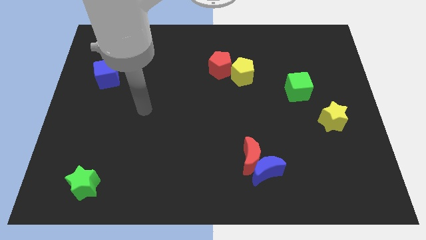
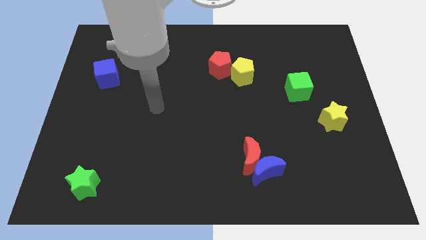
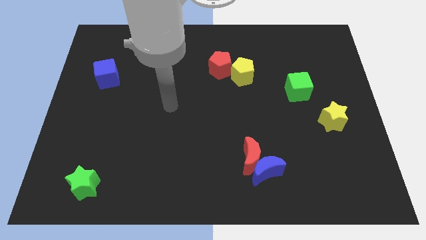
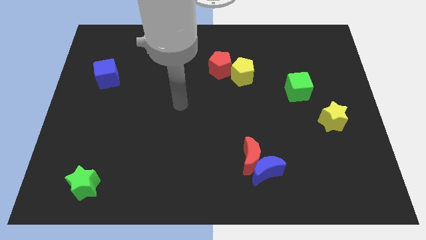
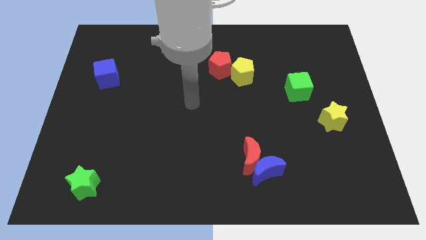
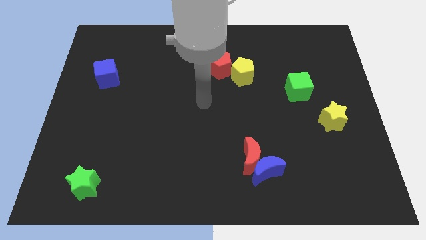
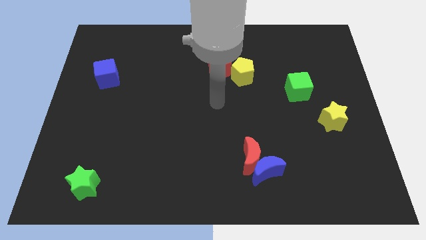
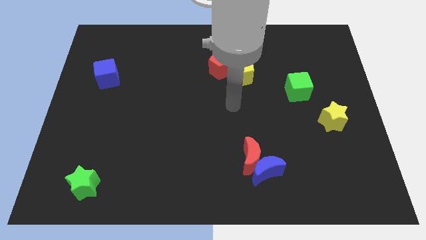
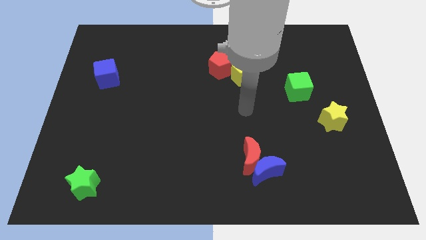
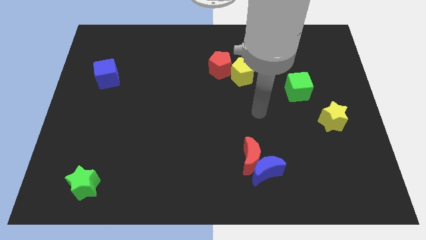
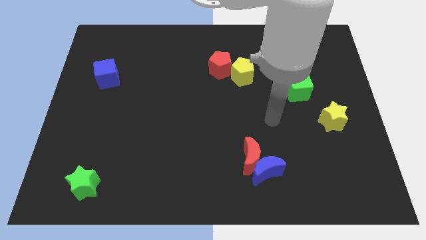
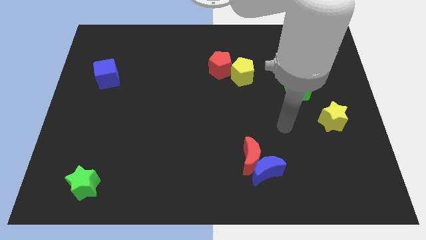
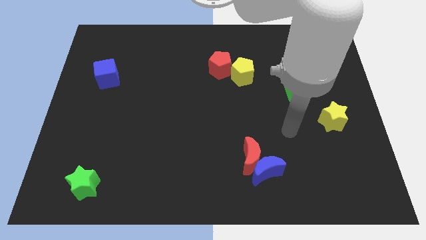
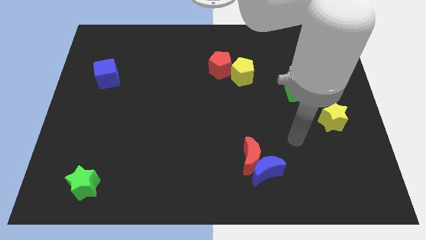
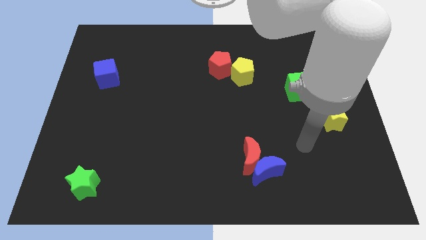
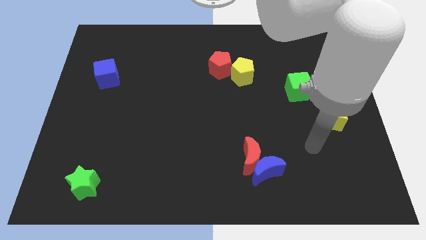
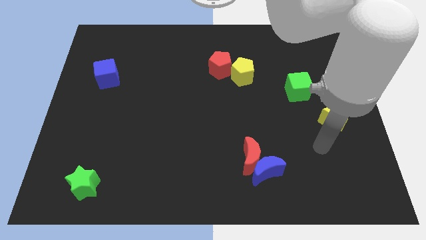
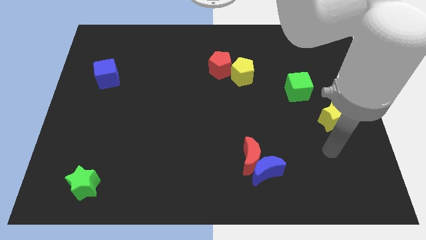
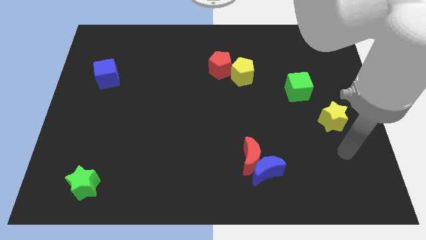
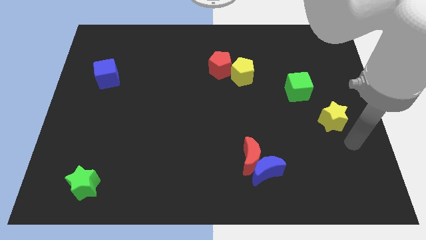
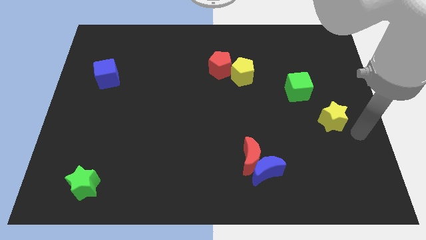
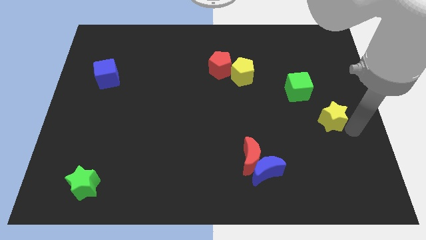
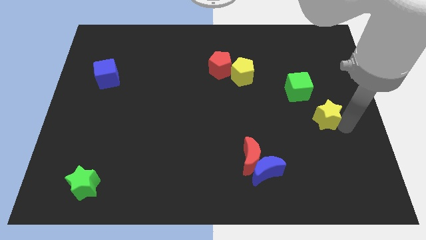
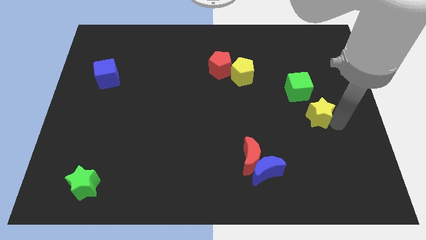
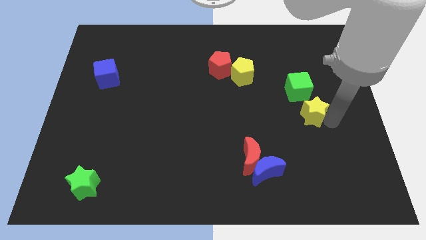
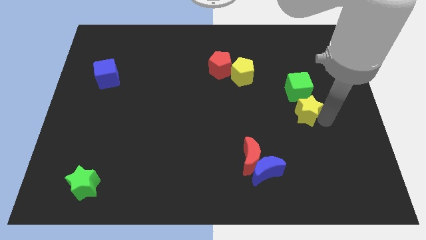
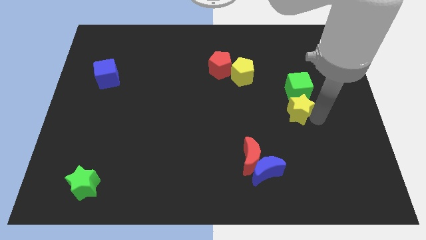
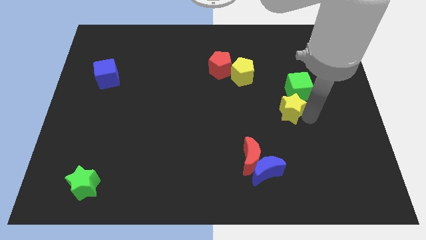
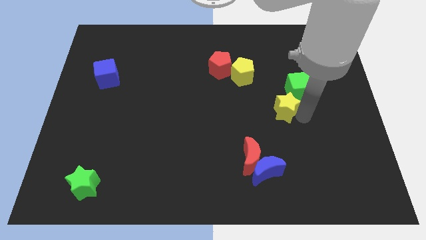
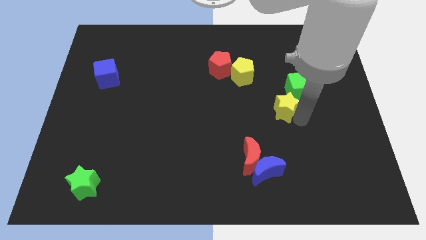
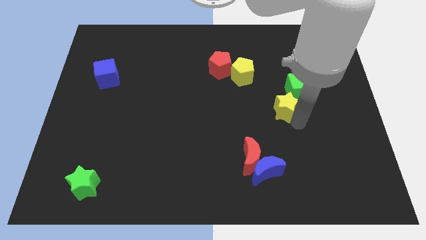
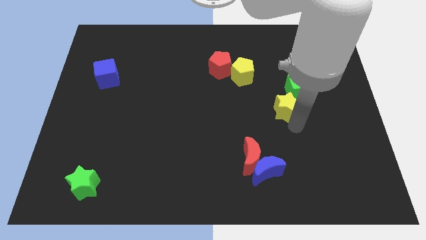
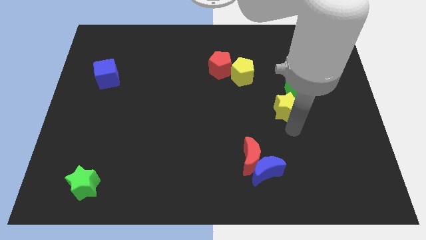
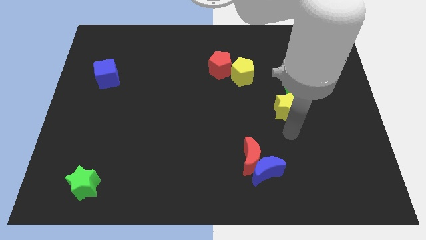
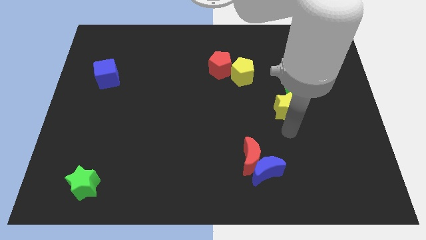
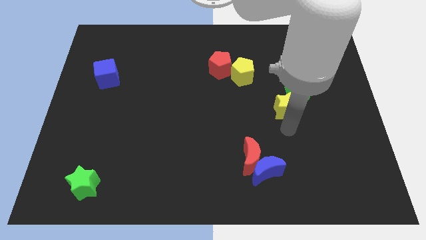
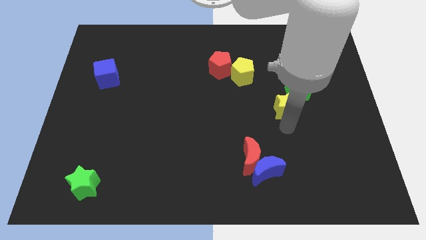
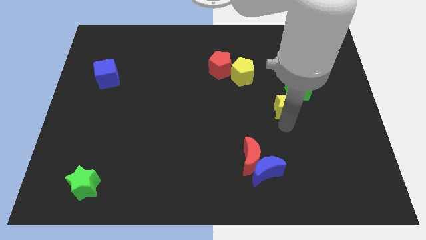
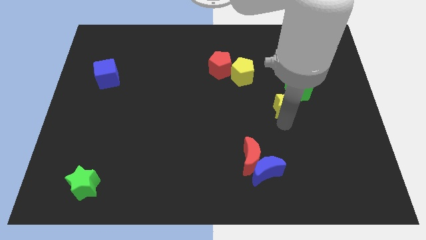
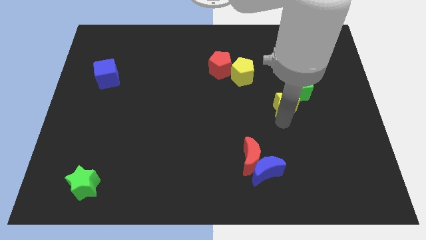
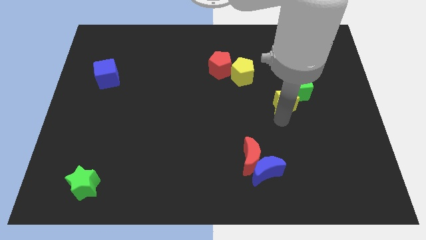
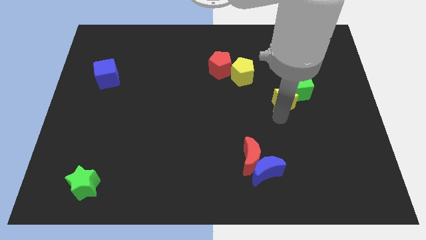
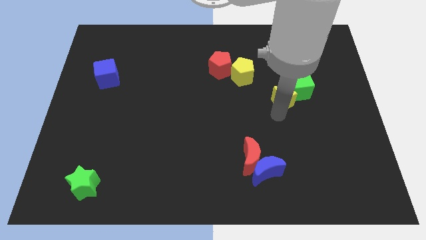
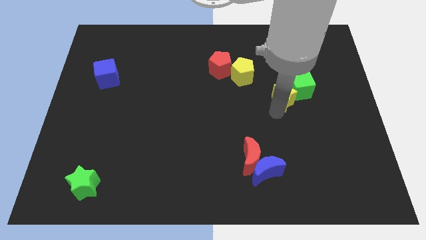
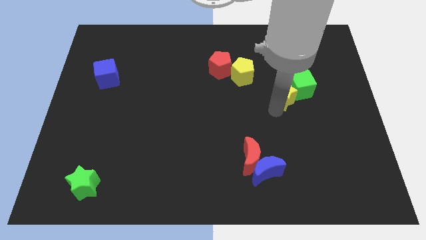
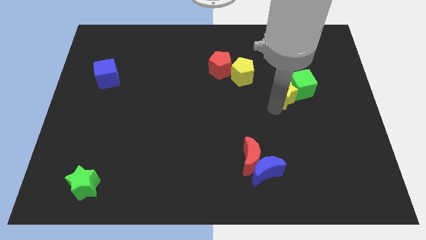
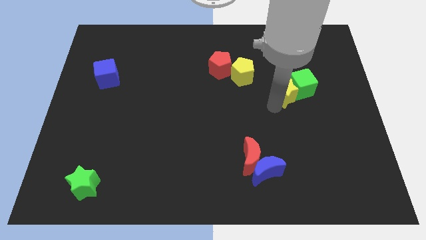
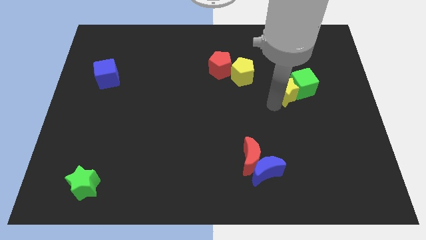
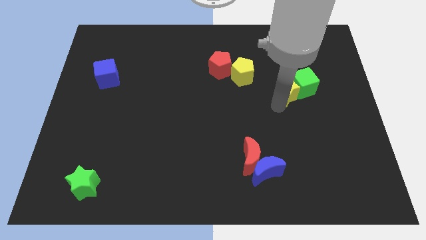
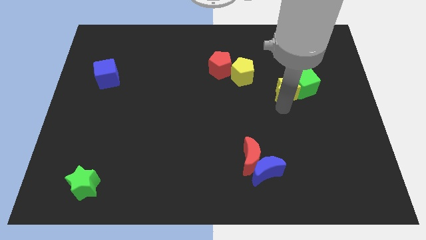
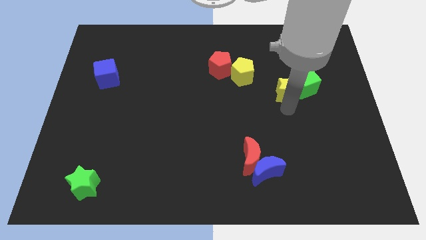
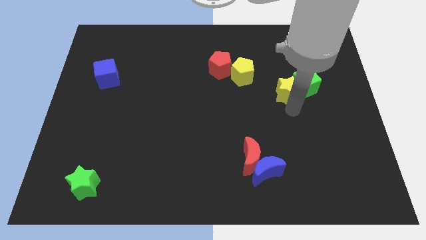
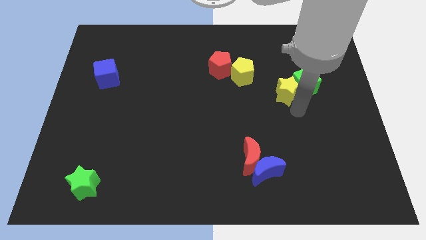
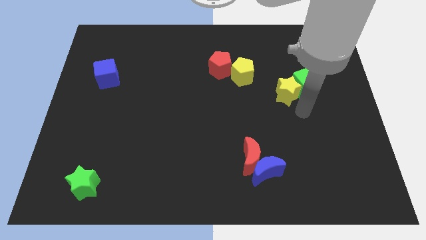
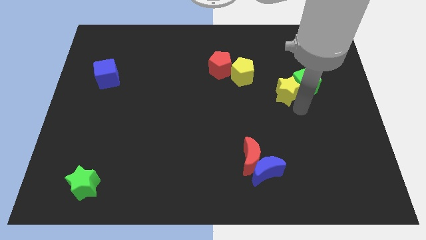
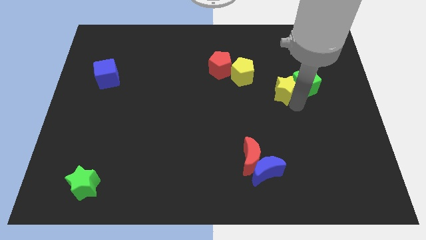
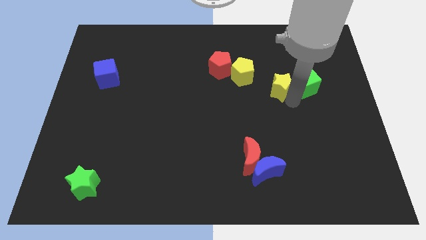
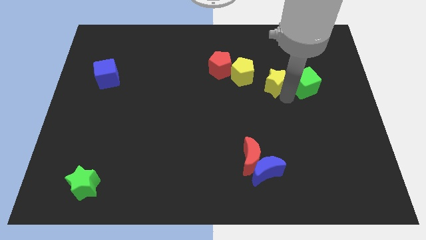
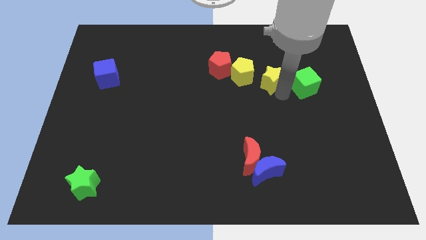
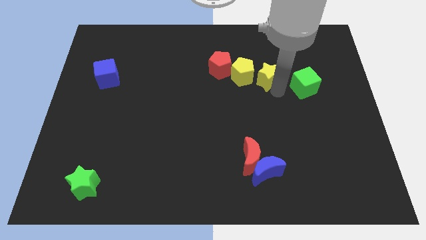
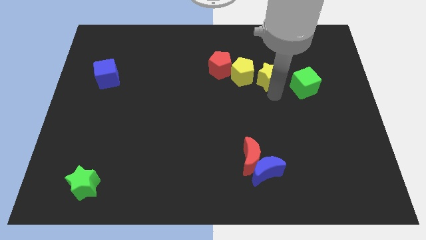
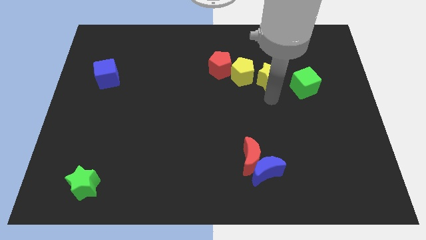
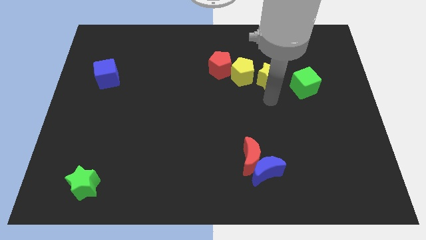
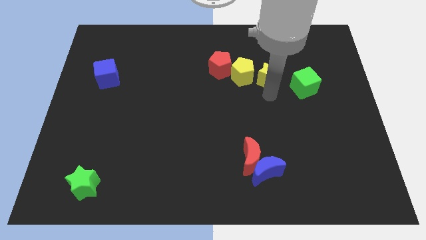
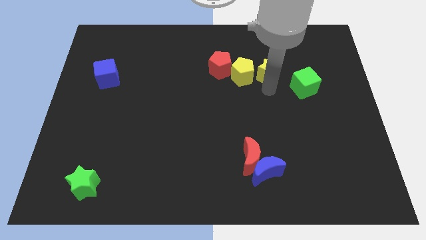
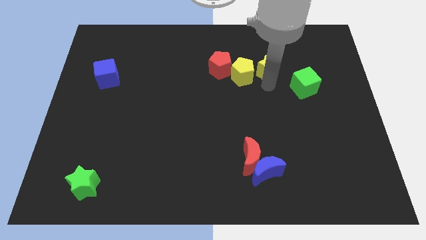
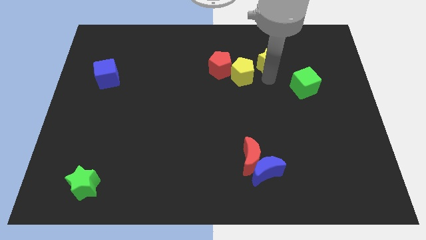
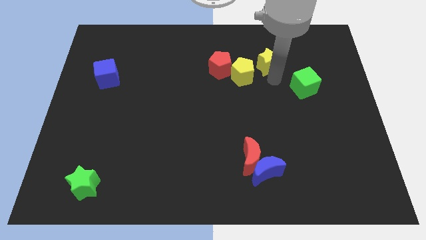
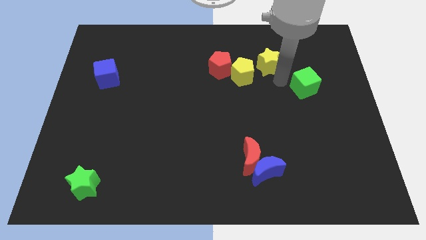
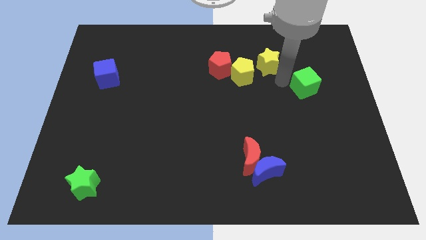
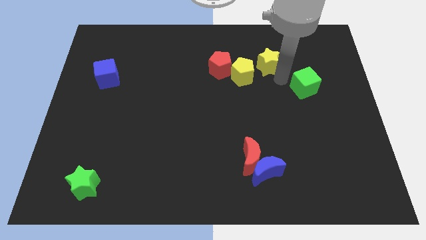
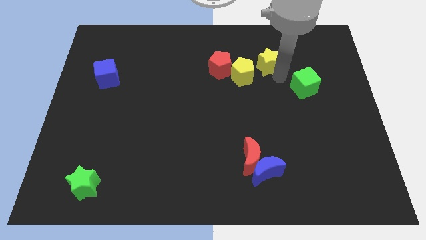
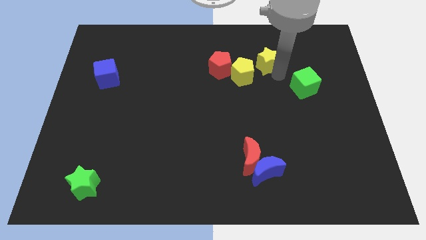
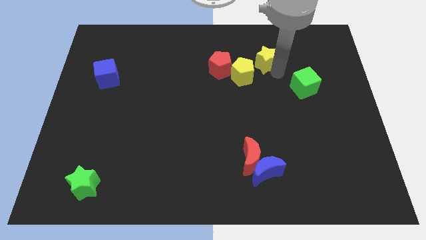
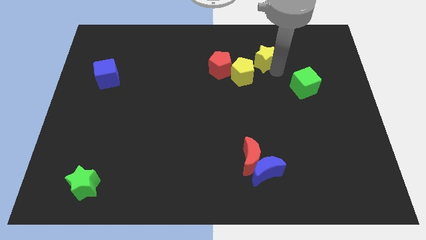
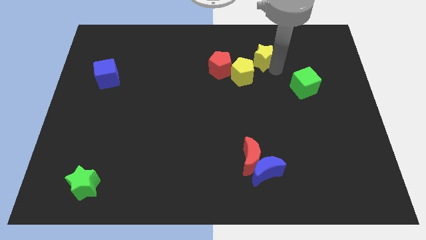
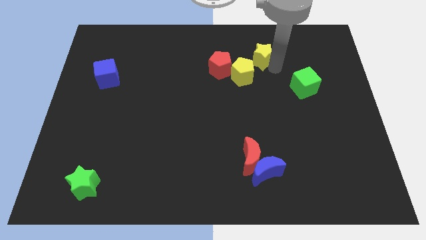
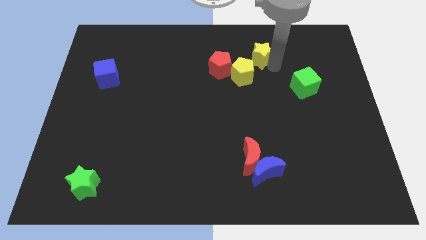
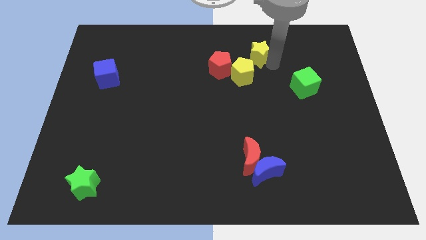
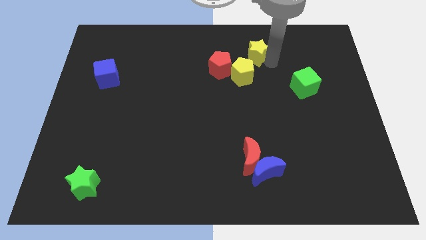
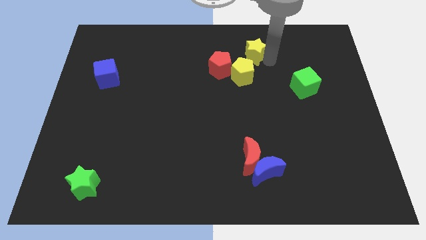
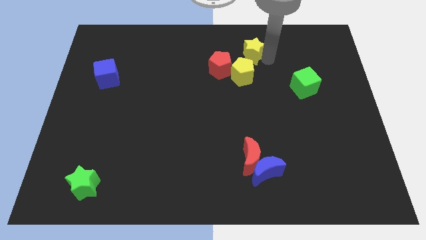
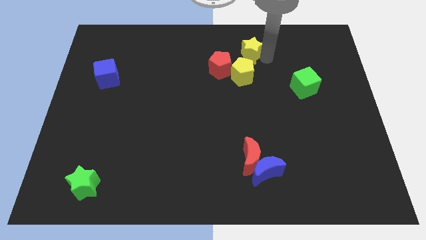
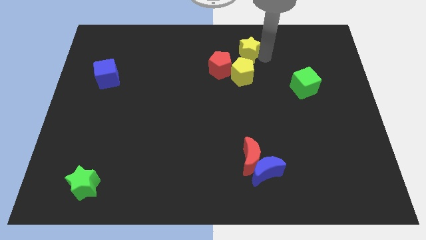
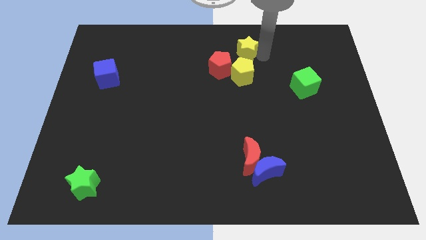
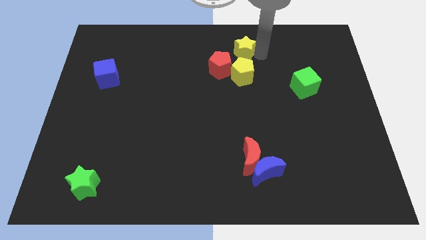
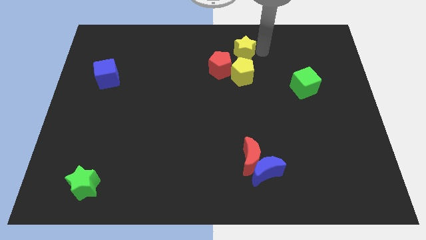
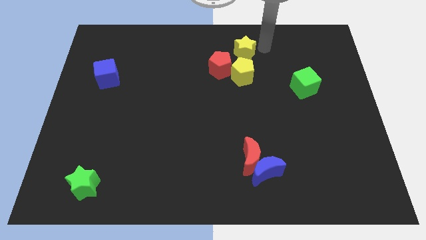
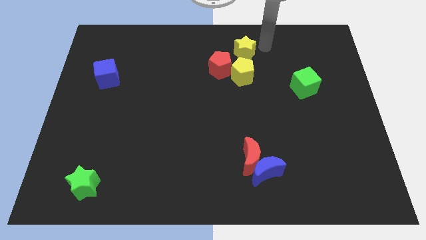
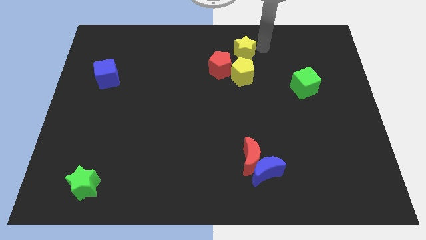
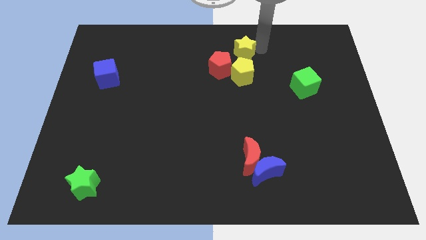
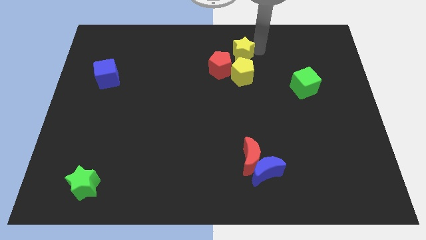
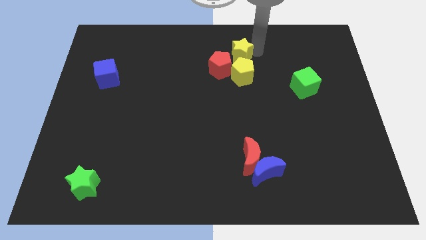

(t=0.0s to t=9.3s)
move the yellow star to the top left side of the yellow pentagon
